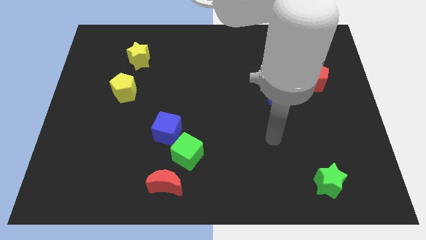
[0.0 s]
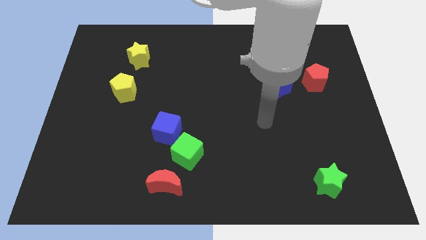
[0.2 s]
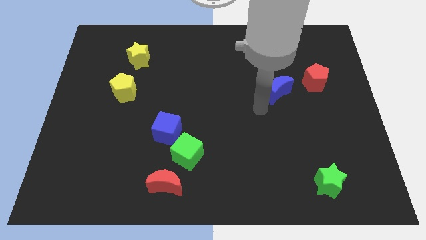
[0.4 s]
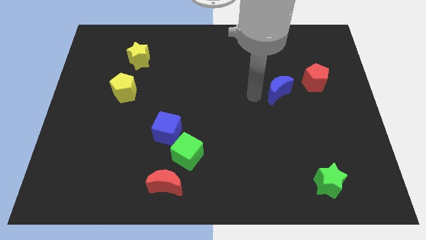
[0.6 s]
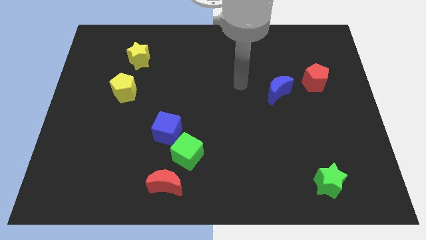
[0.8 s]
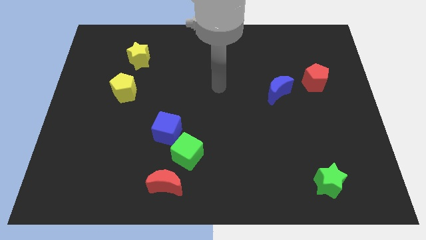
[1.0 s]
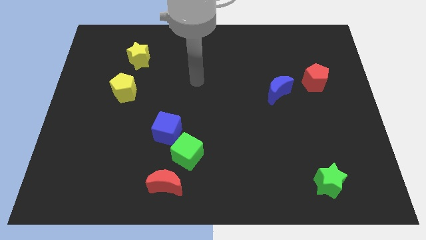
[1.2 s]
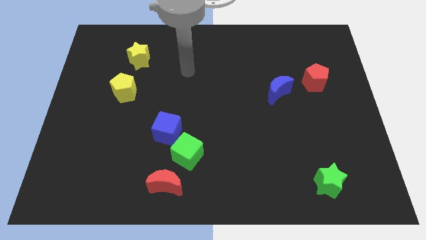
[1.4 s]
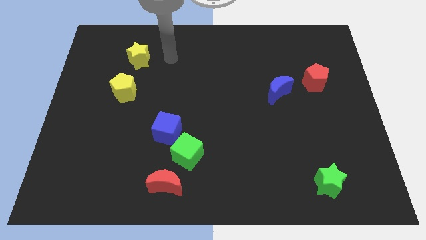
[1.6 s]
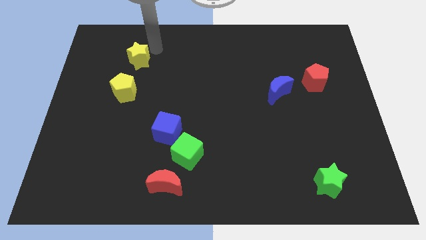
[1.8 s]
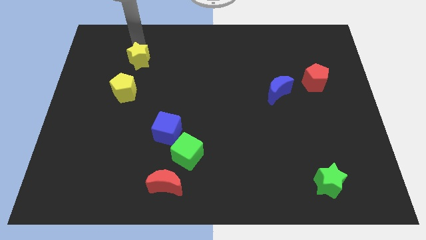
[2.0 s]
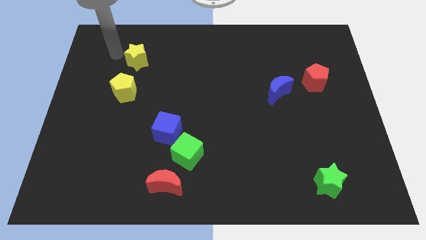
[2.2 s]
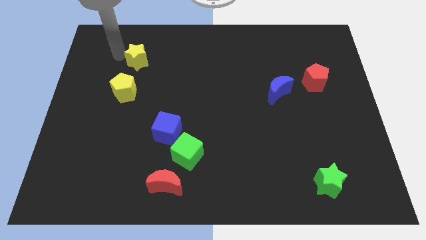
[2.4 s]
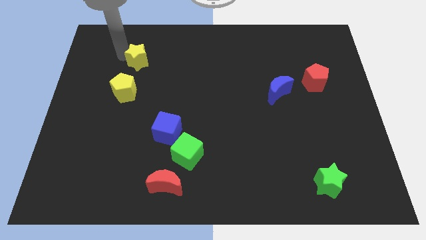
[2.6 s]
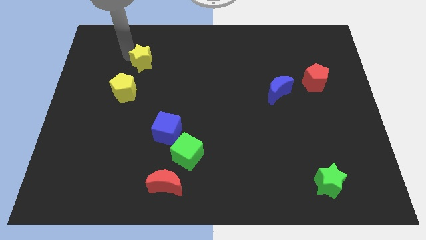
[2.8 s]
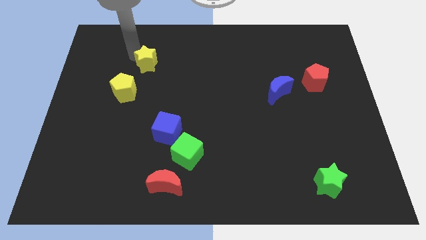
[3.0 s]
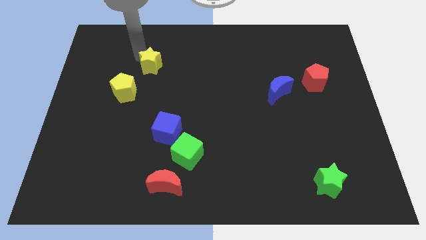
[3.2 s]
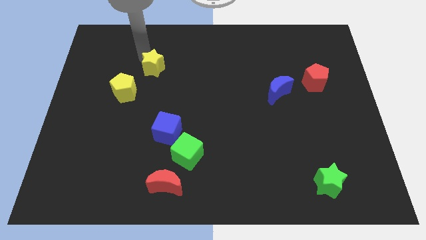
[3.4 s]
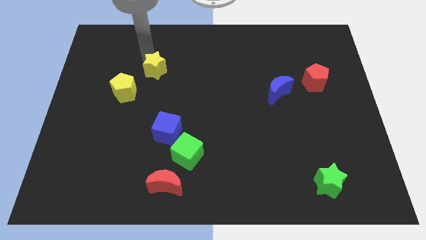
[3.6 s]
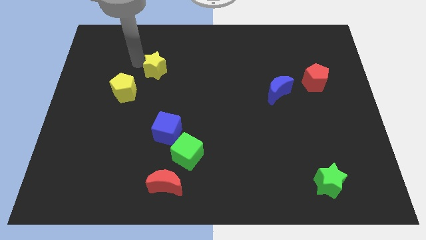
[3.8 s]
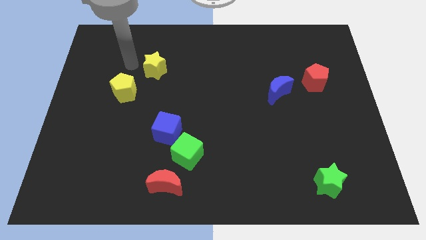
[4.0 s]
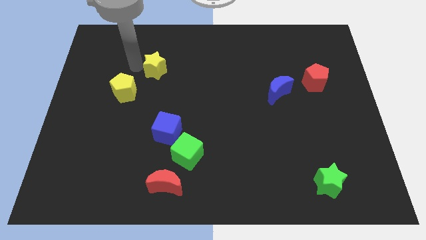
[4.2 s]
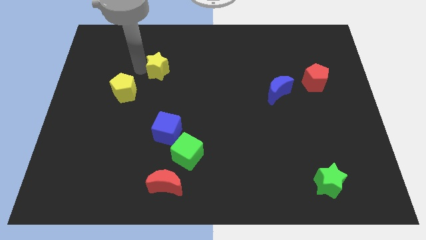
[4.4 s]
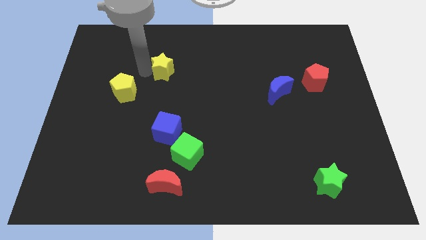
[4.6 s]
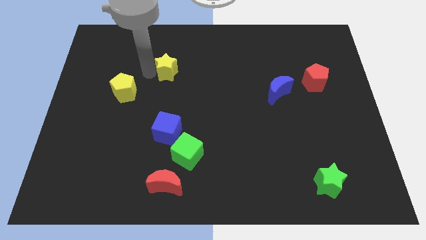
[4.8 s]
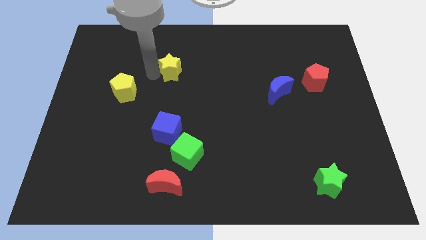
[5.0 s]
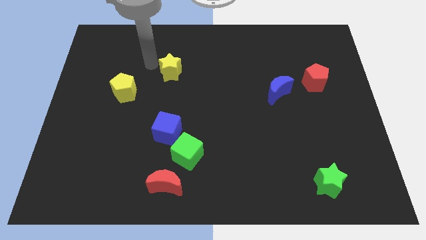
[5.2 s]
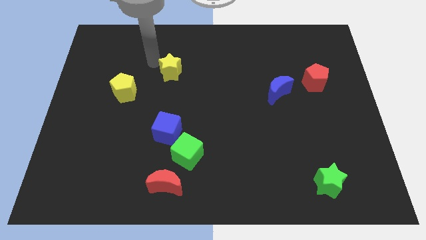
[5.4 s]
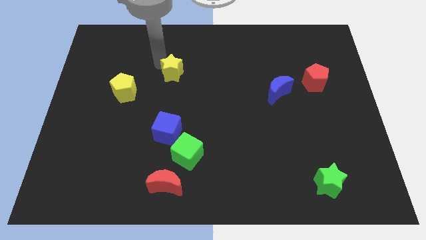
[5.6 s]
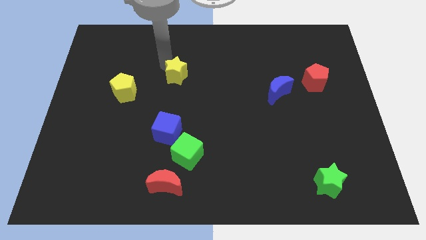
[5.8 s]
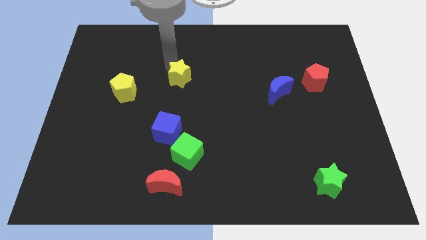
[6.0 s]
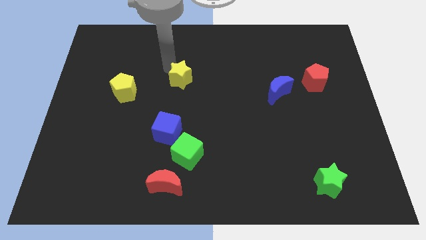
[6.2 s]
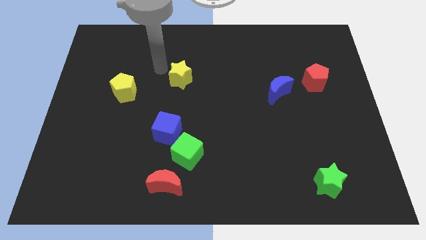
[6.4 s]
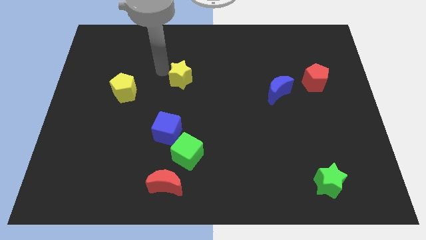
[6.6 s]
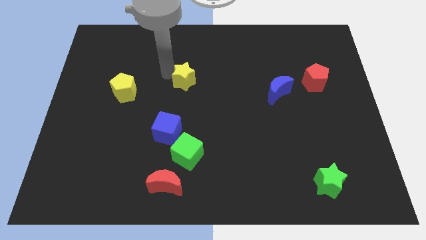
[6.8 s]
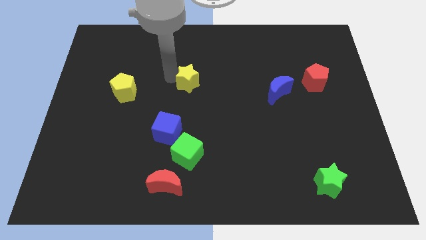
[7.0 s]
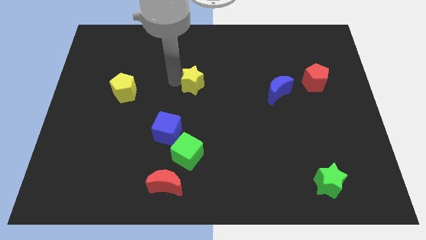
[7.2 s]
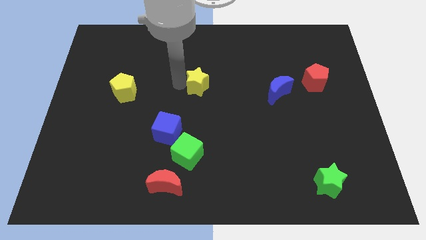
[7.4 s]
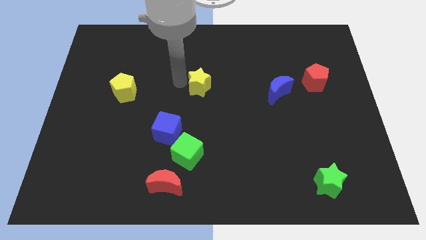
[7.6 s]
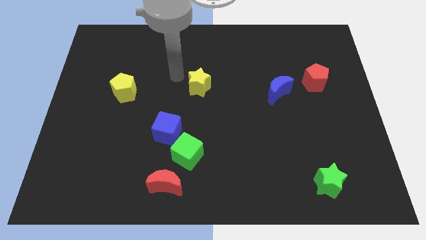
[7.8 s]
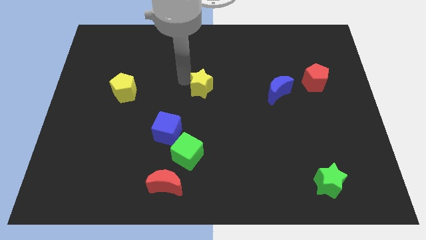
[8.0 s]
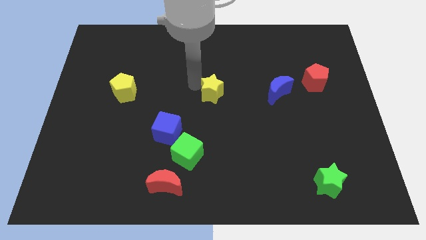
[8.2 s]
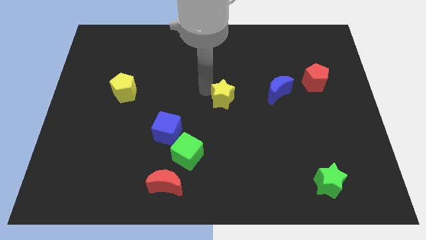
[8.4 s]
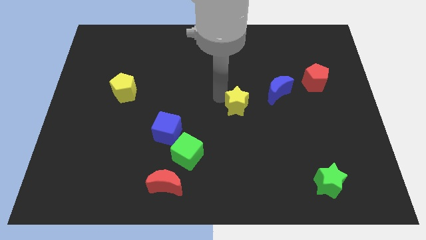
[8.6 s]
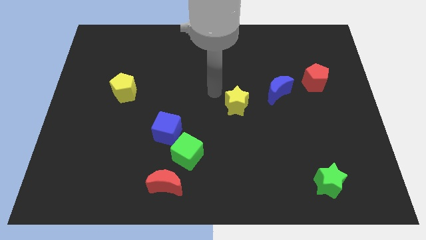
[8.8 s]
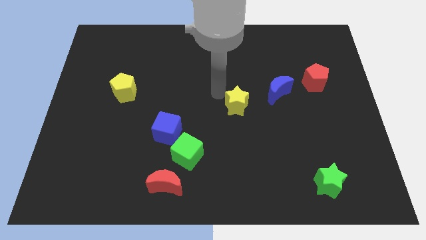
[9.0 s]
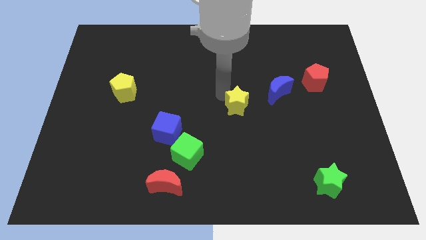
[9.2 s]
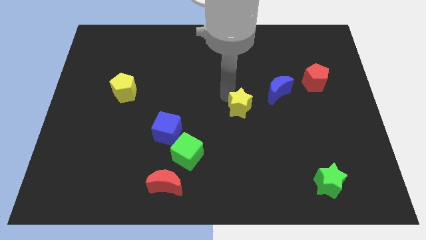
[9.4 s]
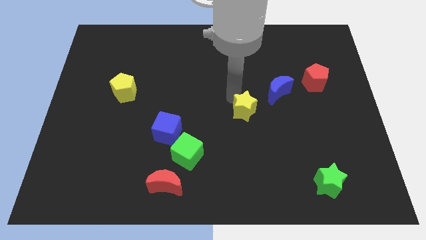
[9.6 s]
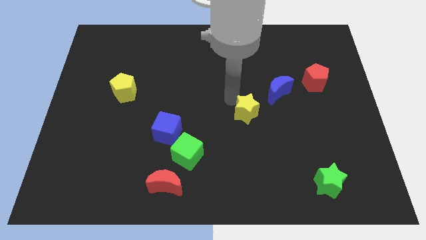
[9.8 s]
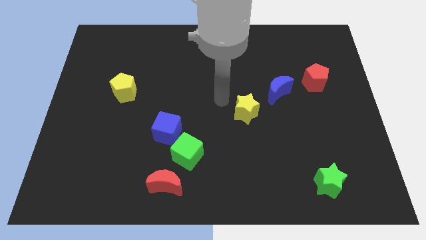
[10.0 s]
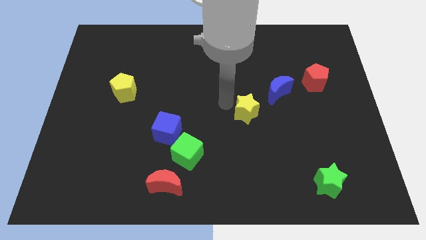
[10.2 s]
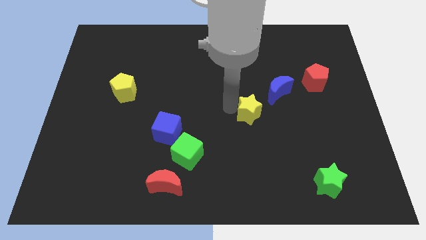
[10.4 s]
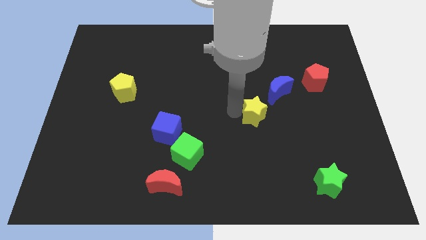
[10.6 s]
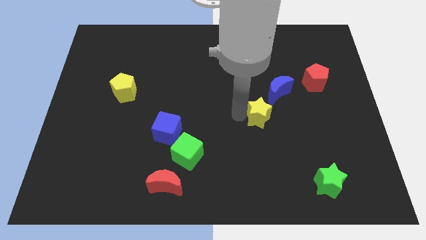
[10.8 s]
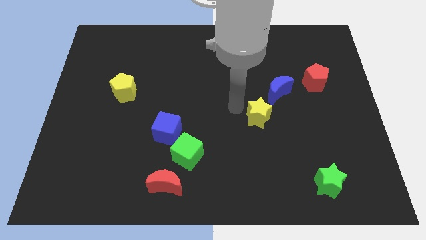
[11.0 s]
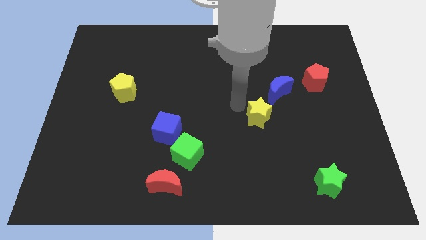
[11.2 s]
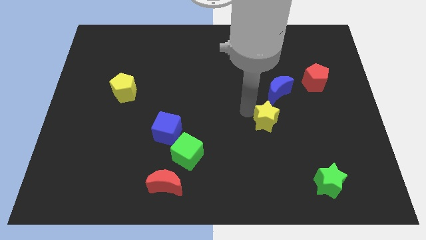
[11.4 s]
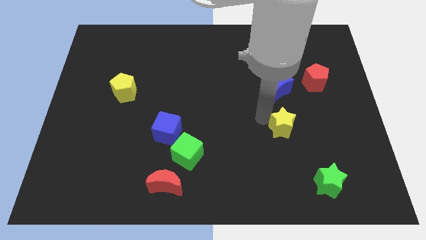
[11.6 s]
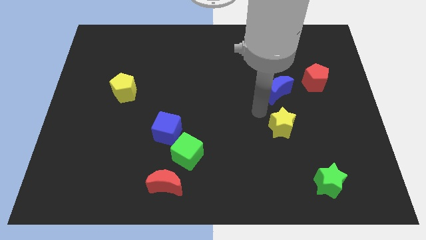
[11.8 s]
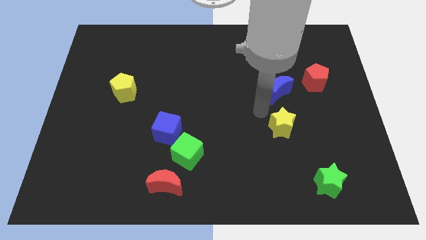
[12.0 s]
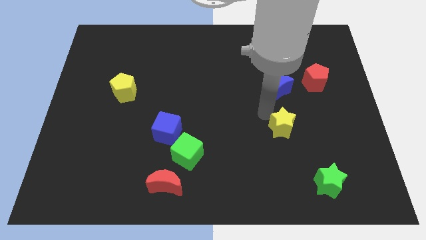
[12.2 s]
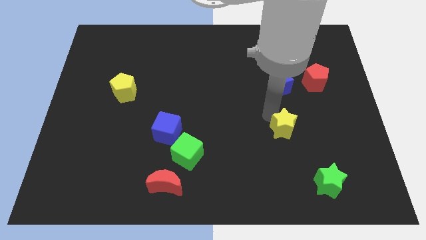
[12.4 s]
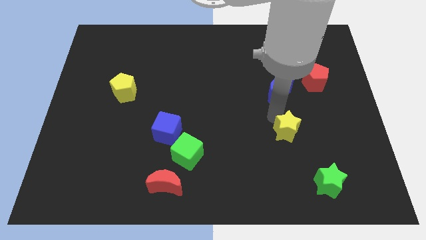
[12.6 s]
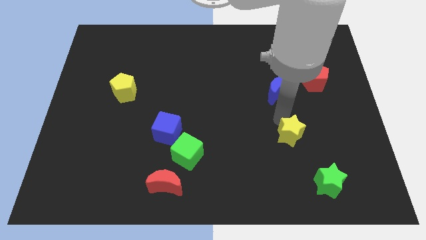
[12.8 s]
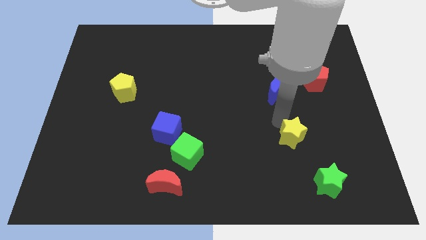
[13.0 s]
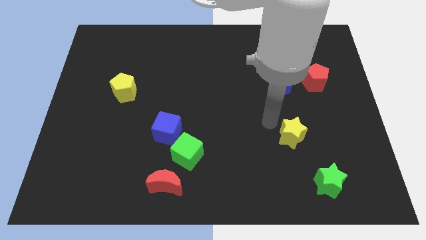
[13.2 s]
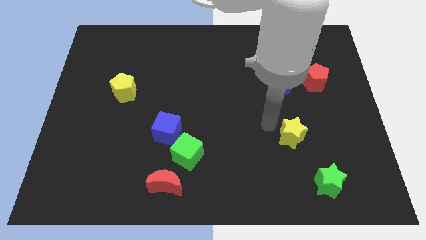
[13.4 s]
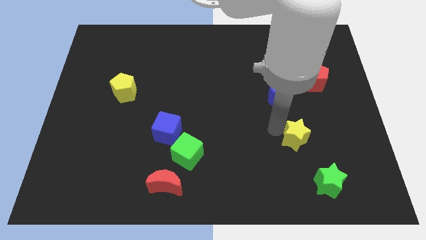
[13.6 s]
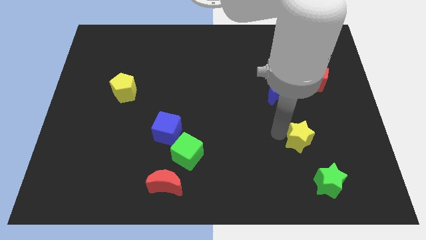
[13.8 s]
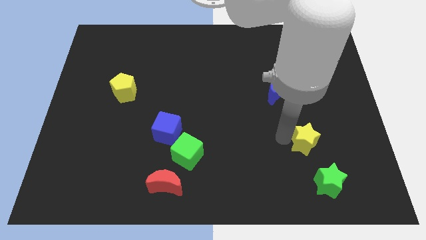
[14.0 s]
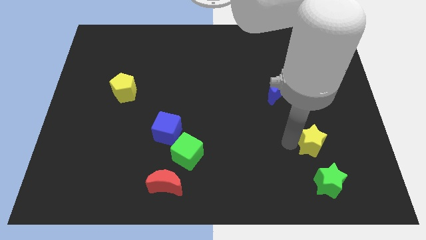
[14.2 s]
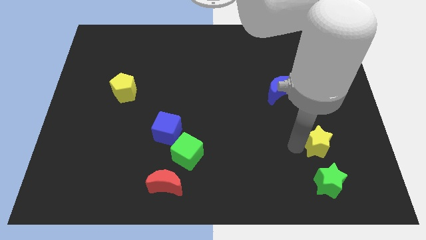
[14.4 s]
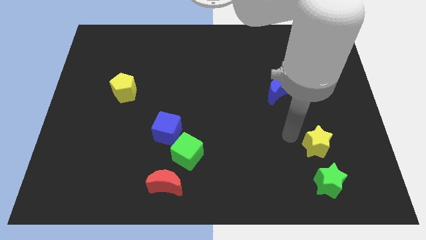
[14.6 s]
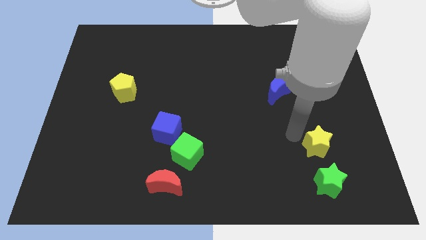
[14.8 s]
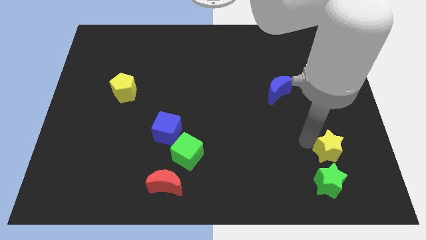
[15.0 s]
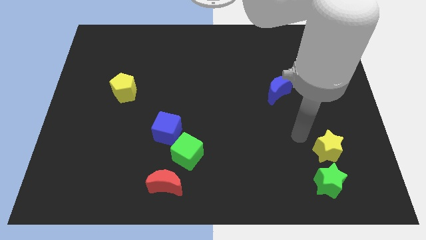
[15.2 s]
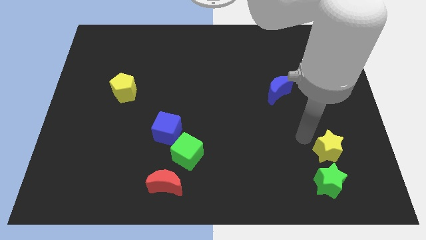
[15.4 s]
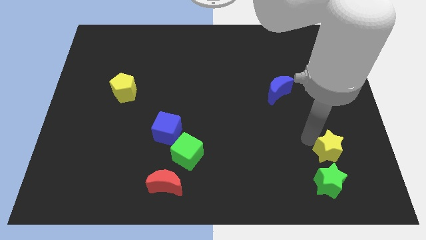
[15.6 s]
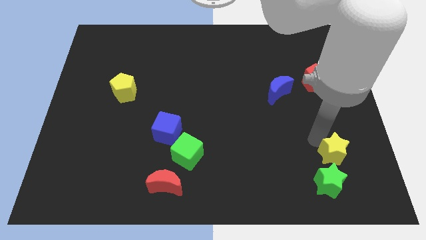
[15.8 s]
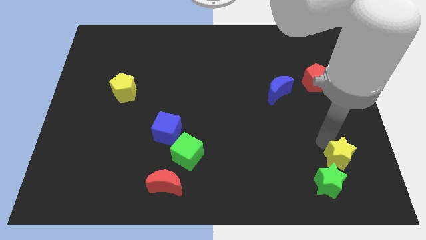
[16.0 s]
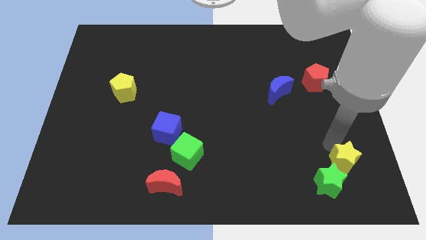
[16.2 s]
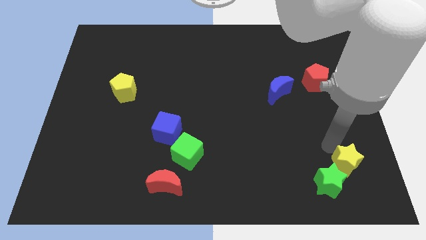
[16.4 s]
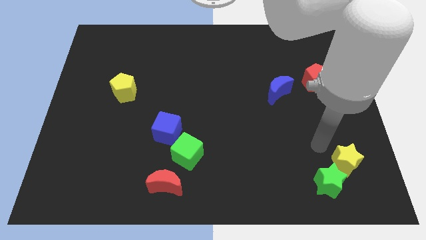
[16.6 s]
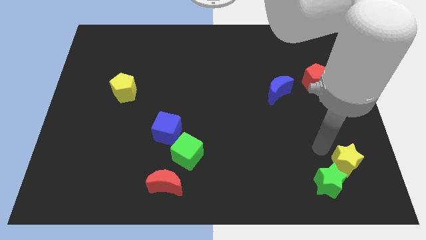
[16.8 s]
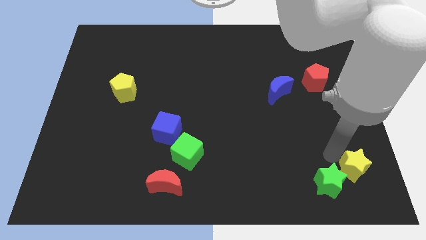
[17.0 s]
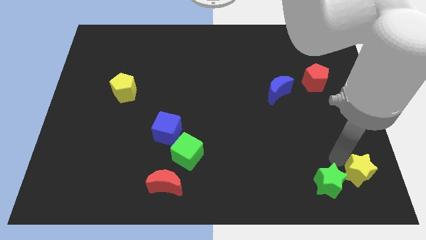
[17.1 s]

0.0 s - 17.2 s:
push the yellow star to the bottom right
